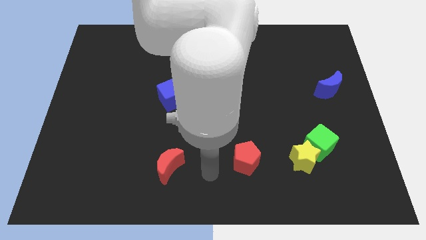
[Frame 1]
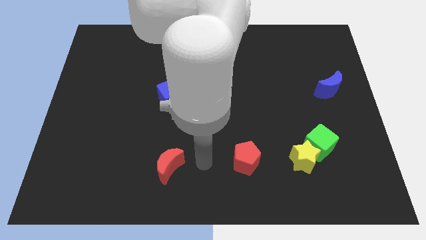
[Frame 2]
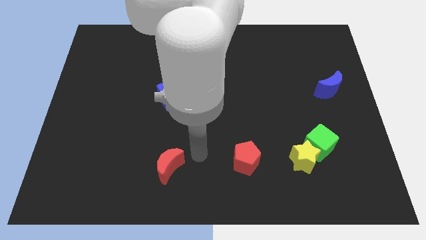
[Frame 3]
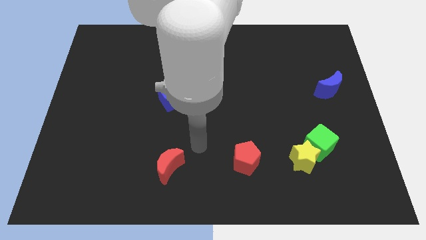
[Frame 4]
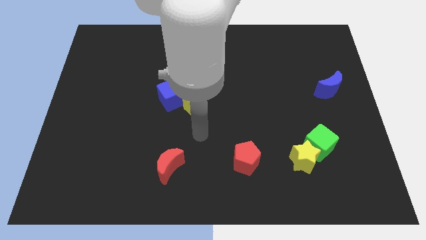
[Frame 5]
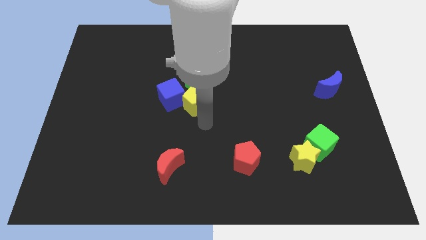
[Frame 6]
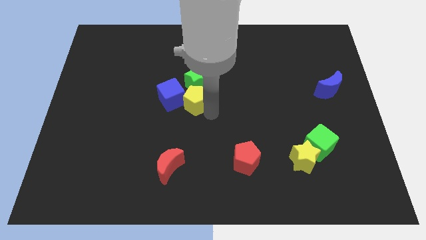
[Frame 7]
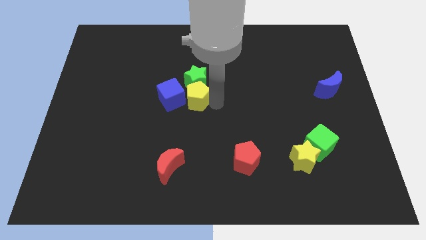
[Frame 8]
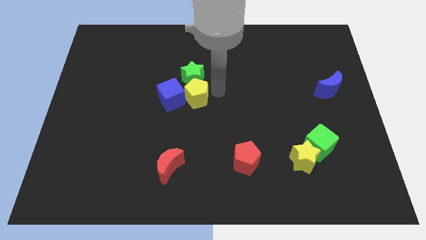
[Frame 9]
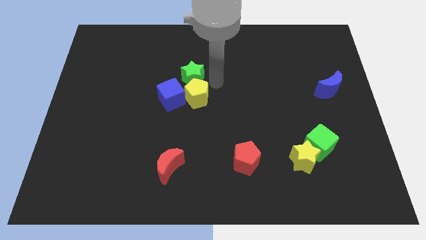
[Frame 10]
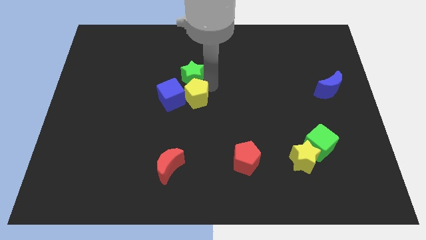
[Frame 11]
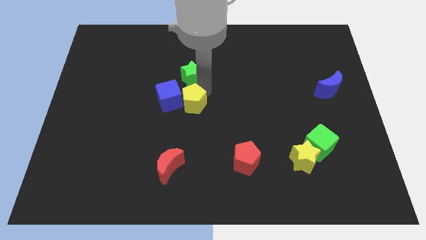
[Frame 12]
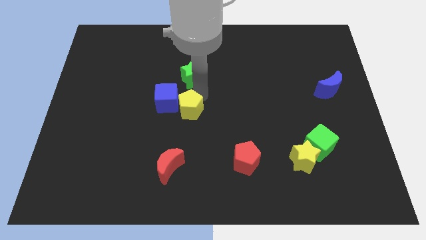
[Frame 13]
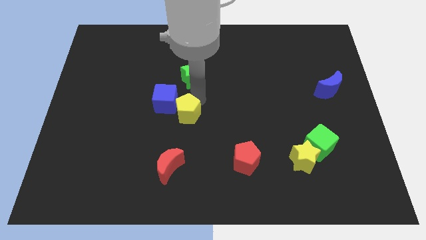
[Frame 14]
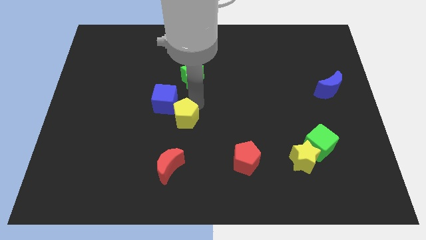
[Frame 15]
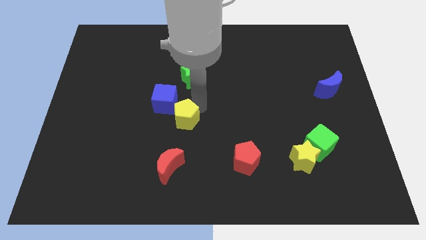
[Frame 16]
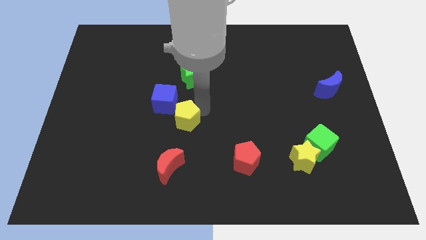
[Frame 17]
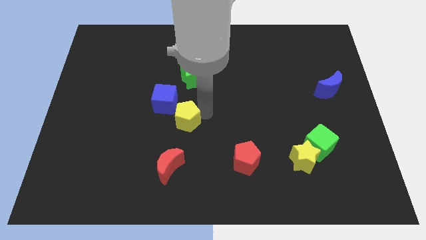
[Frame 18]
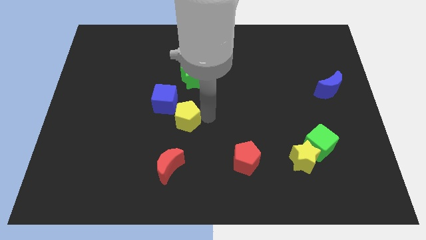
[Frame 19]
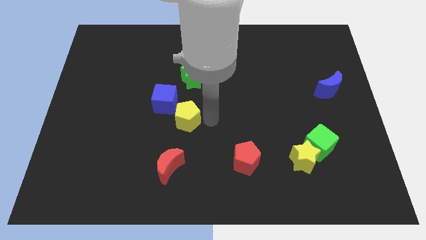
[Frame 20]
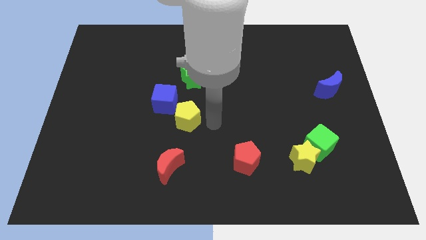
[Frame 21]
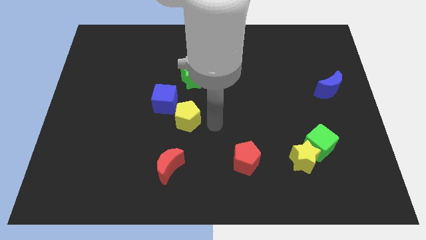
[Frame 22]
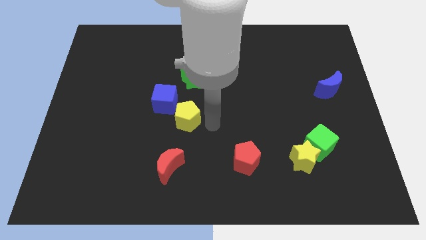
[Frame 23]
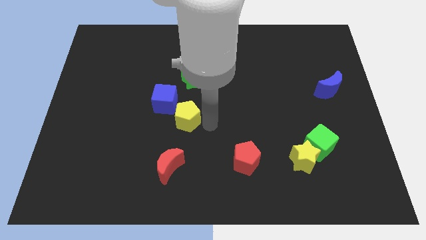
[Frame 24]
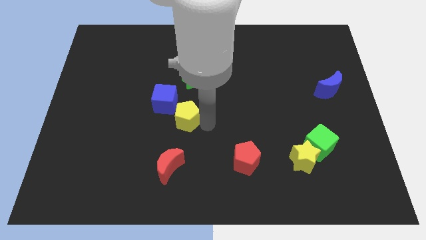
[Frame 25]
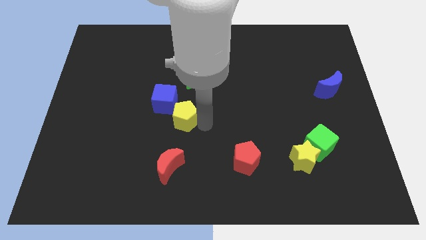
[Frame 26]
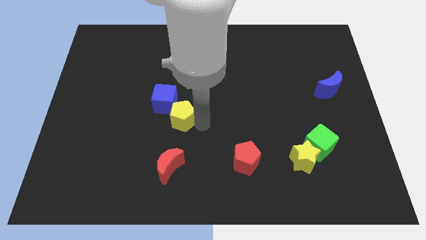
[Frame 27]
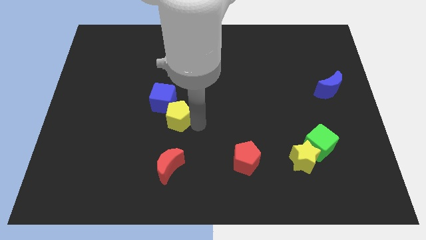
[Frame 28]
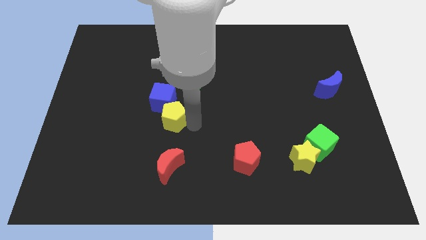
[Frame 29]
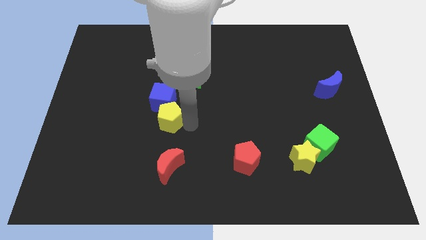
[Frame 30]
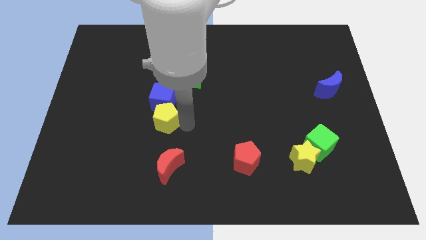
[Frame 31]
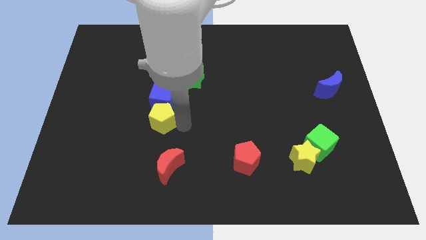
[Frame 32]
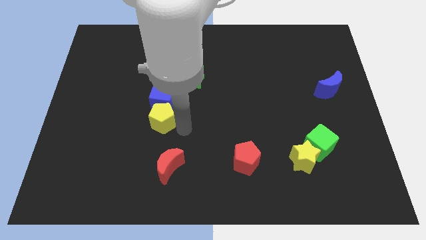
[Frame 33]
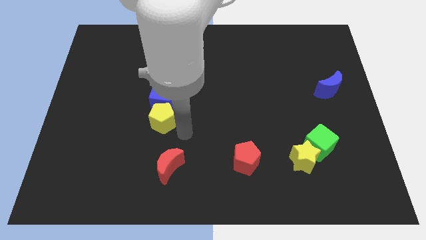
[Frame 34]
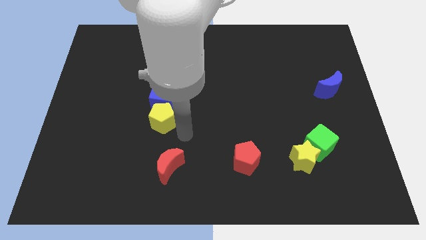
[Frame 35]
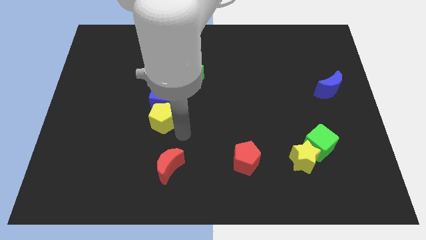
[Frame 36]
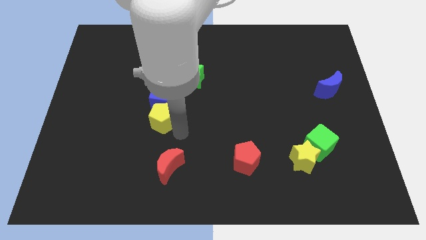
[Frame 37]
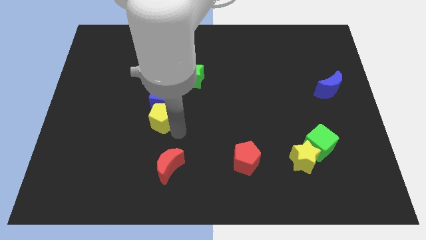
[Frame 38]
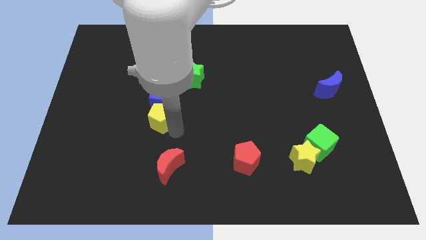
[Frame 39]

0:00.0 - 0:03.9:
push the yellow pentagon a little left

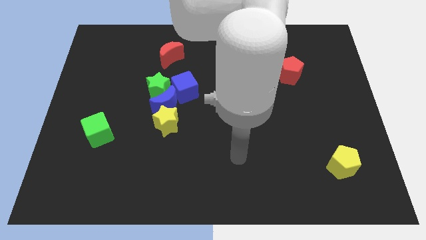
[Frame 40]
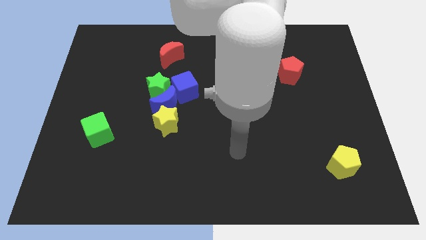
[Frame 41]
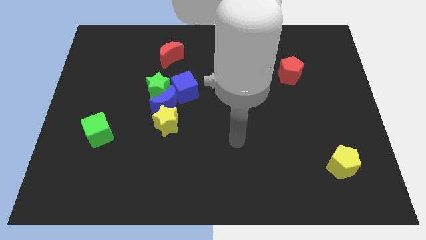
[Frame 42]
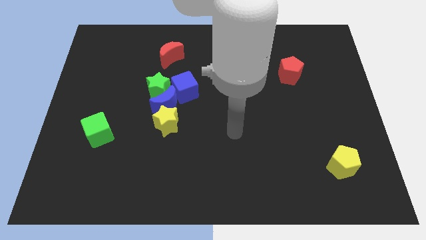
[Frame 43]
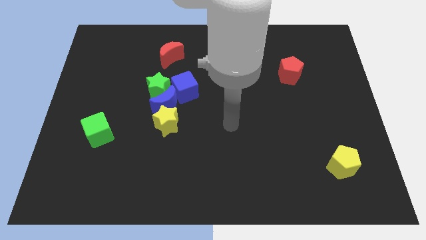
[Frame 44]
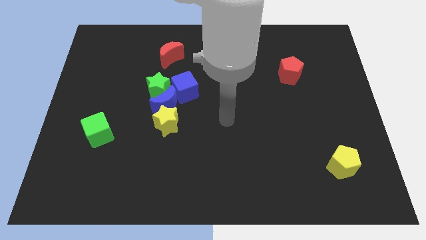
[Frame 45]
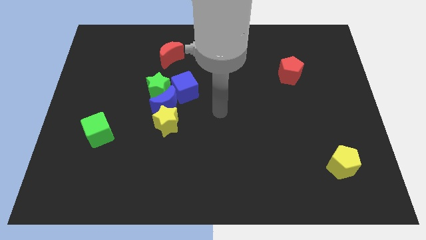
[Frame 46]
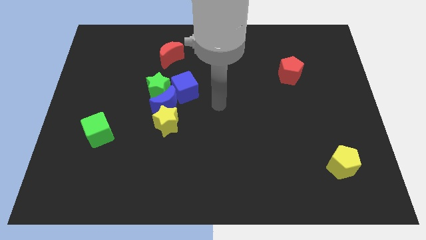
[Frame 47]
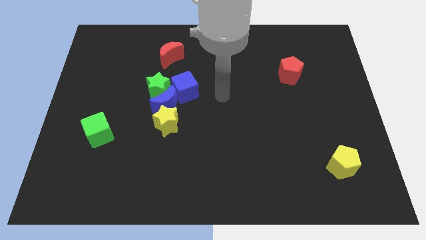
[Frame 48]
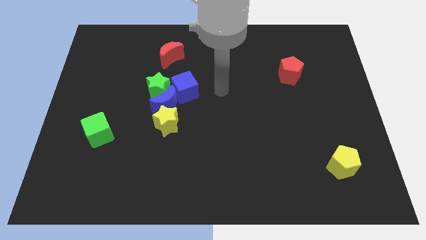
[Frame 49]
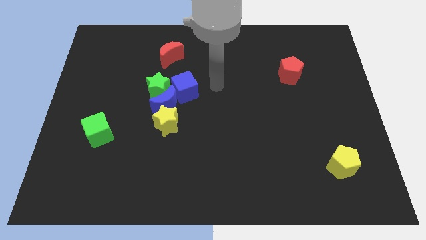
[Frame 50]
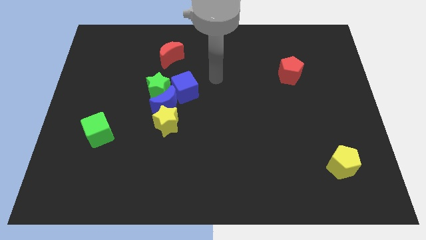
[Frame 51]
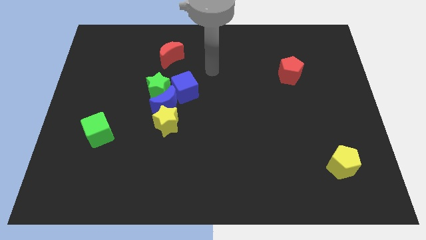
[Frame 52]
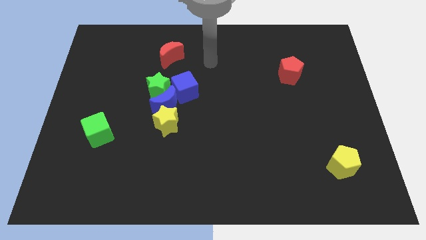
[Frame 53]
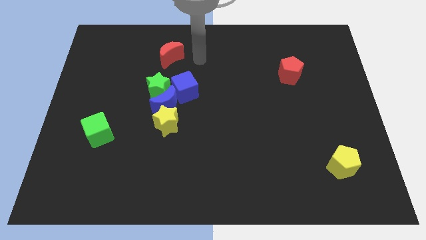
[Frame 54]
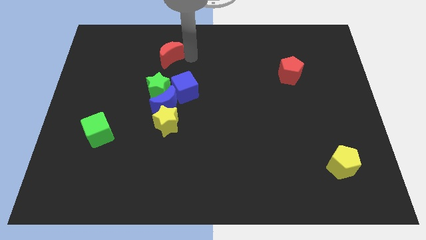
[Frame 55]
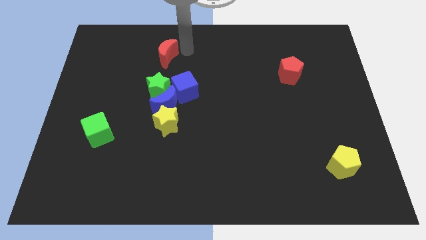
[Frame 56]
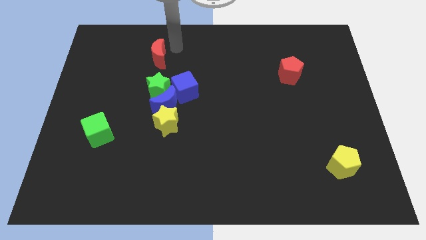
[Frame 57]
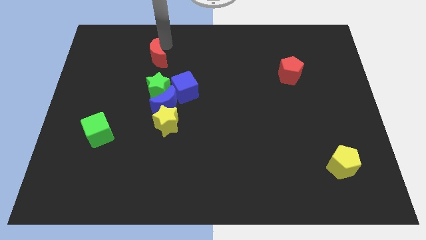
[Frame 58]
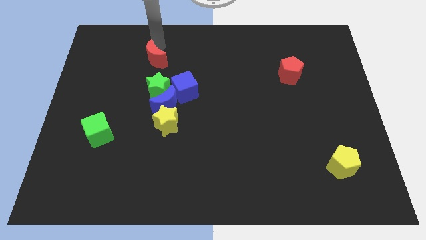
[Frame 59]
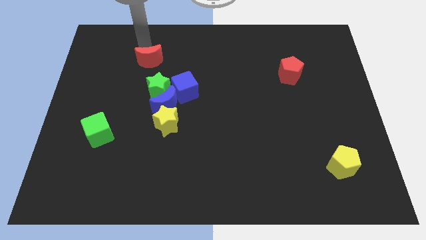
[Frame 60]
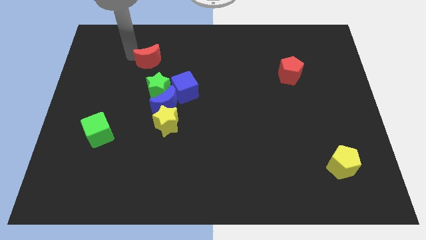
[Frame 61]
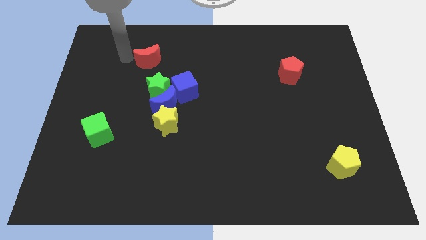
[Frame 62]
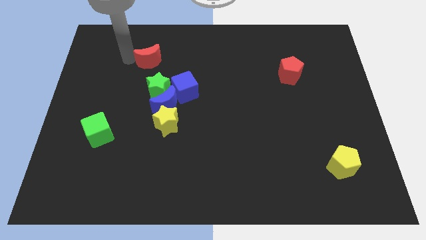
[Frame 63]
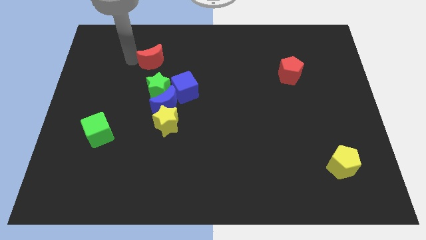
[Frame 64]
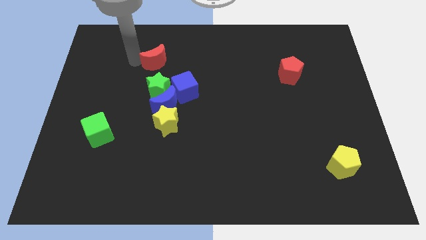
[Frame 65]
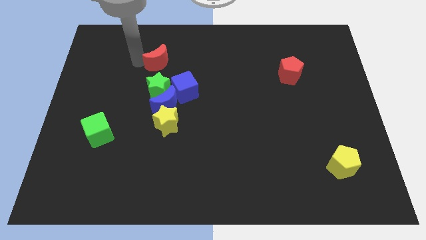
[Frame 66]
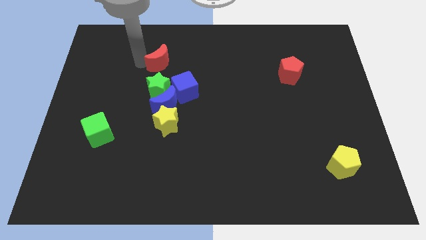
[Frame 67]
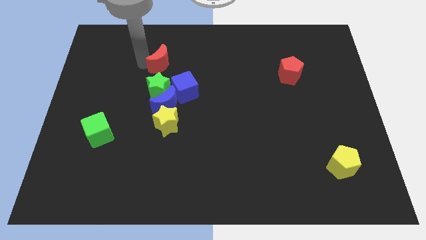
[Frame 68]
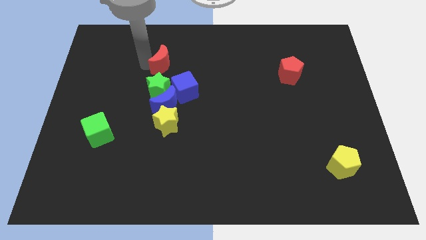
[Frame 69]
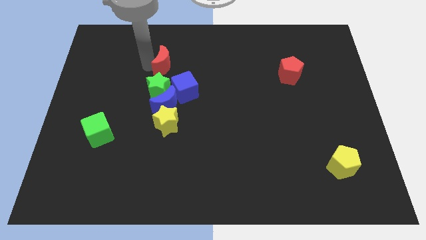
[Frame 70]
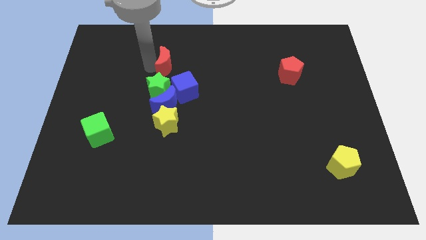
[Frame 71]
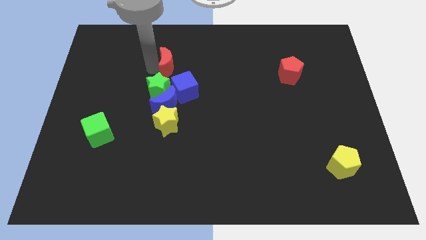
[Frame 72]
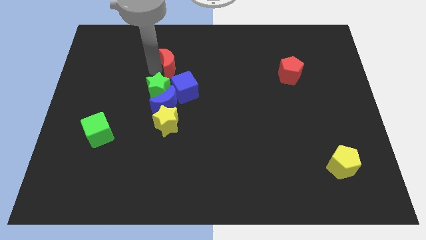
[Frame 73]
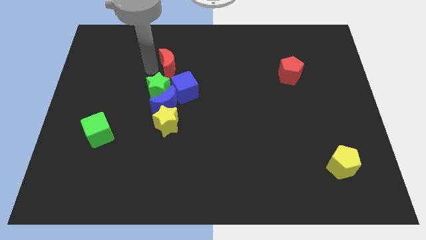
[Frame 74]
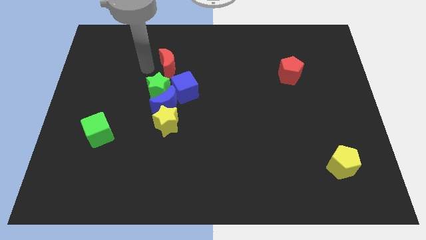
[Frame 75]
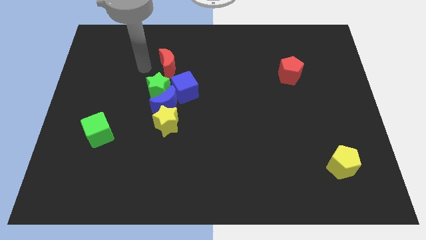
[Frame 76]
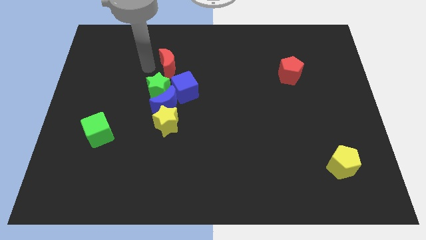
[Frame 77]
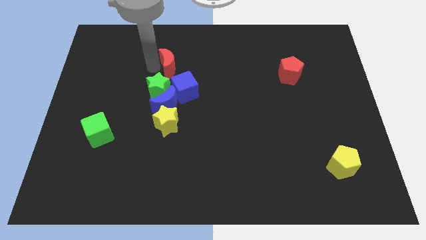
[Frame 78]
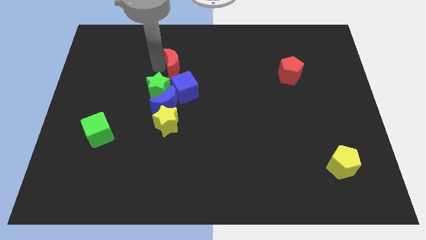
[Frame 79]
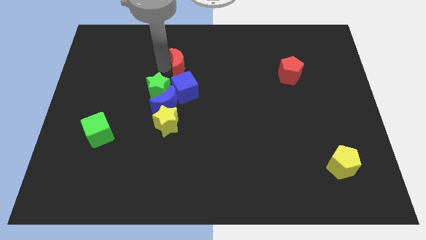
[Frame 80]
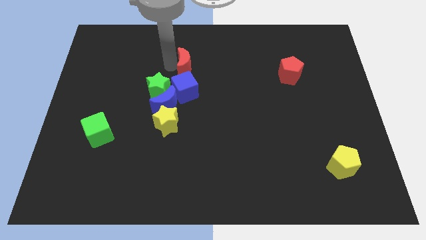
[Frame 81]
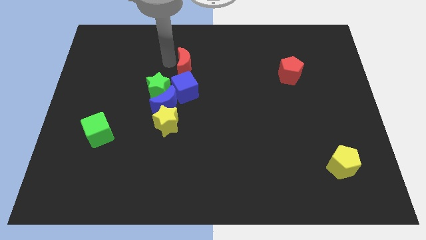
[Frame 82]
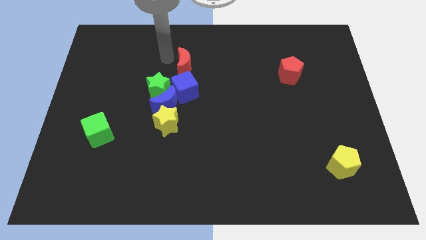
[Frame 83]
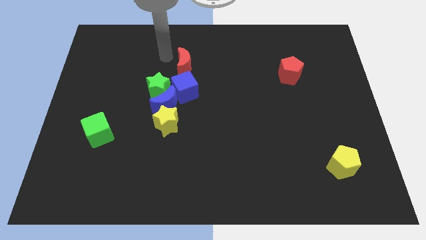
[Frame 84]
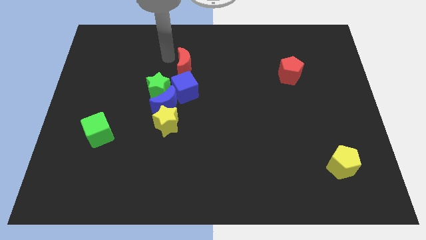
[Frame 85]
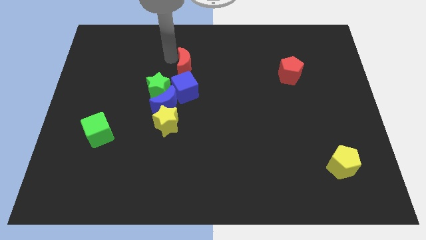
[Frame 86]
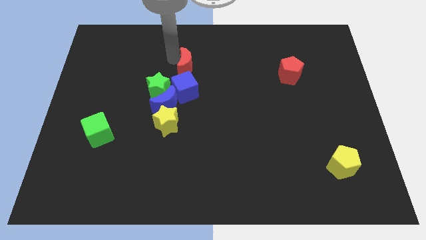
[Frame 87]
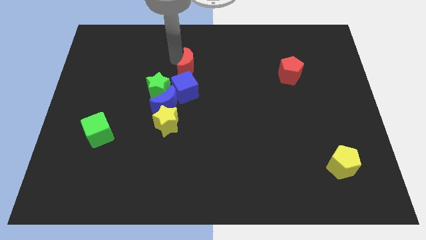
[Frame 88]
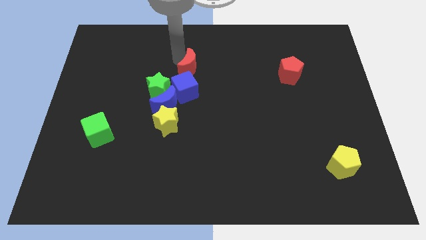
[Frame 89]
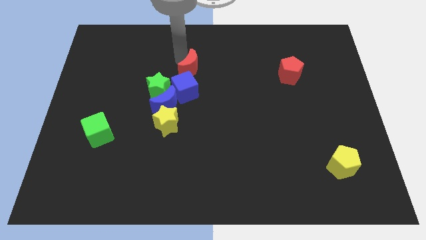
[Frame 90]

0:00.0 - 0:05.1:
move the red moon a little down and right diagonally
